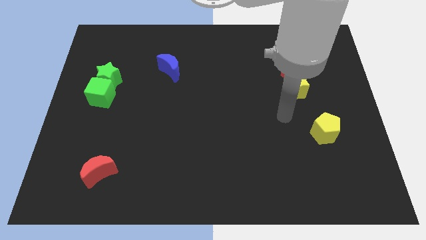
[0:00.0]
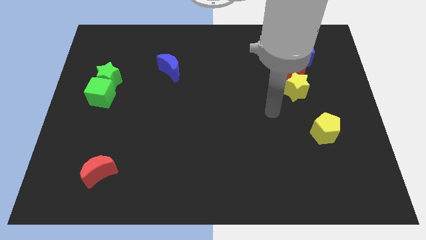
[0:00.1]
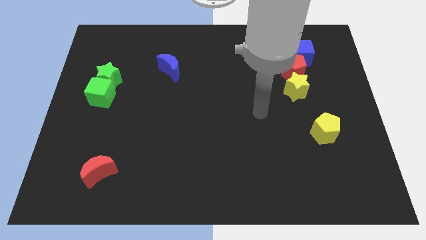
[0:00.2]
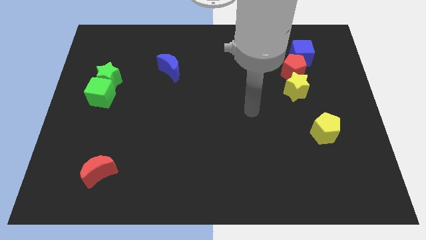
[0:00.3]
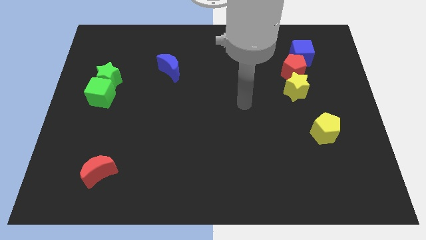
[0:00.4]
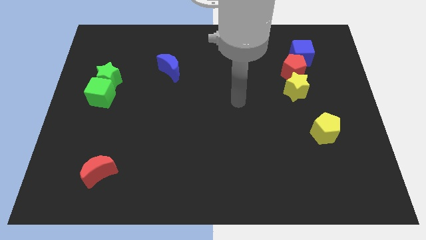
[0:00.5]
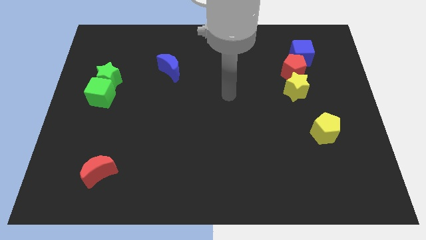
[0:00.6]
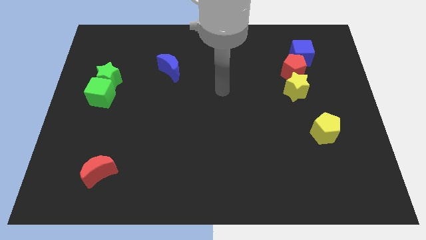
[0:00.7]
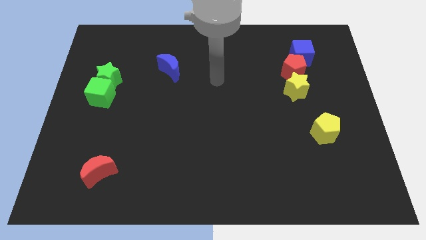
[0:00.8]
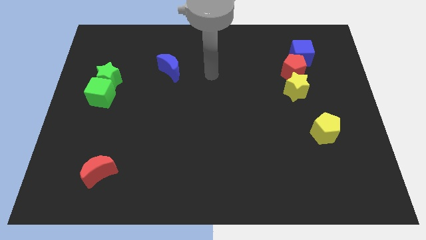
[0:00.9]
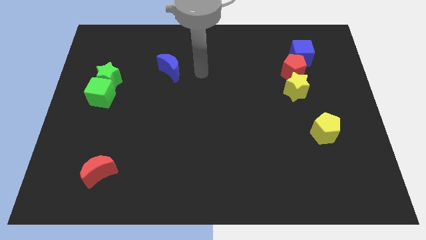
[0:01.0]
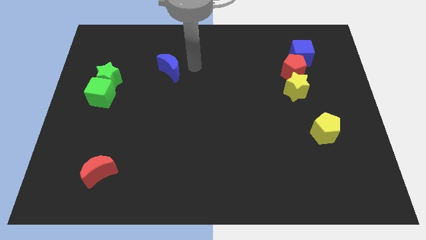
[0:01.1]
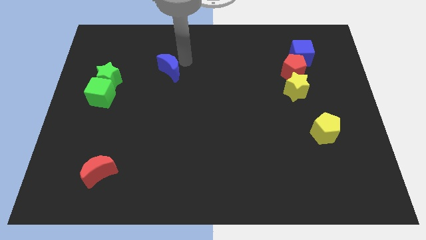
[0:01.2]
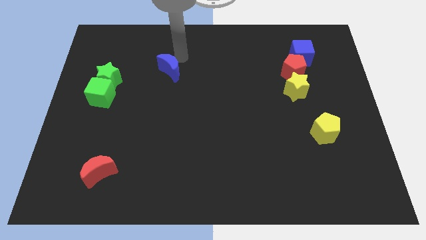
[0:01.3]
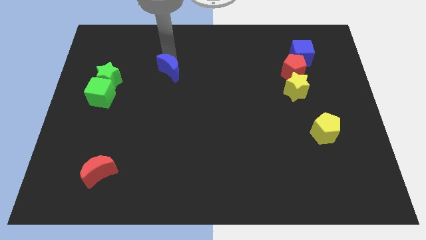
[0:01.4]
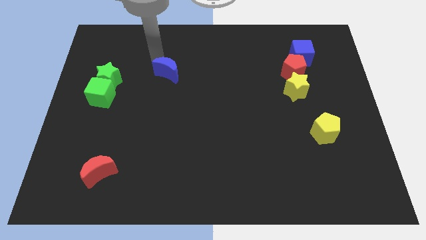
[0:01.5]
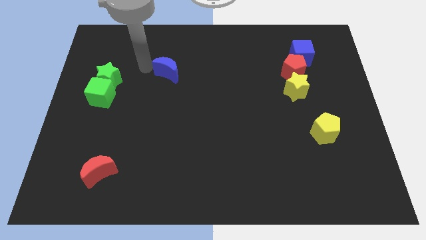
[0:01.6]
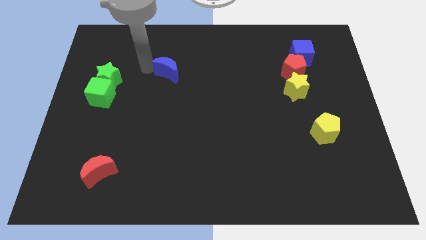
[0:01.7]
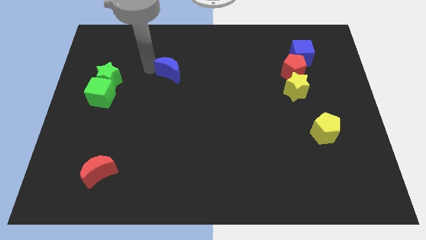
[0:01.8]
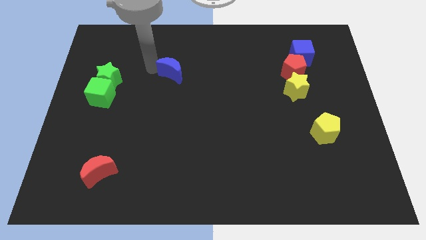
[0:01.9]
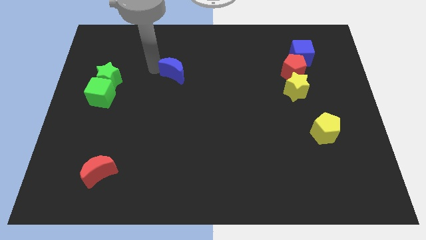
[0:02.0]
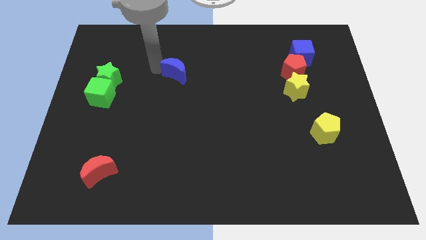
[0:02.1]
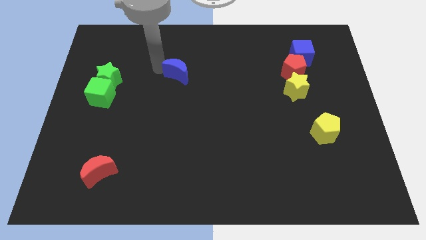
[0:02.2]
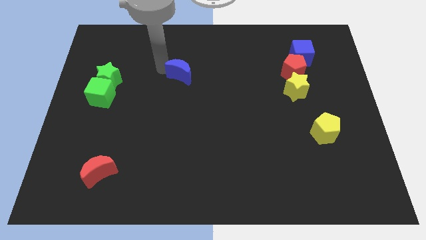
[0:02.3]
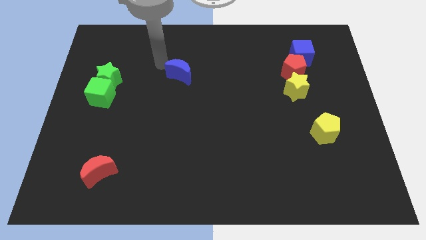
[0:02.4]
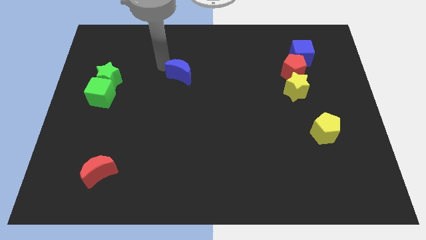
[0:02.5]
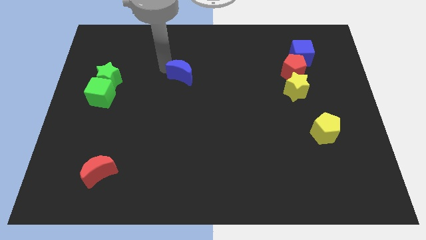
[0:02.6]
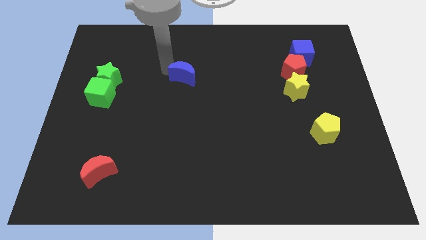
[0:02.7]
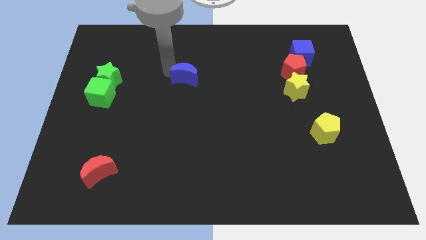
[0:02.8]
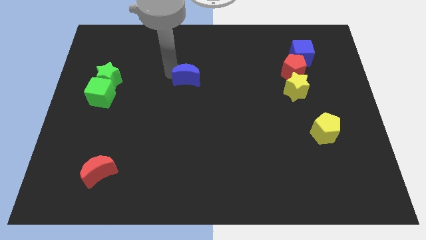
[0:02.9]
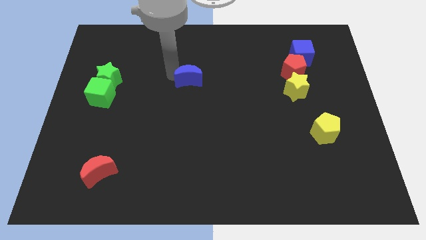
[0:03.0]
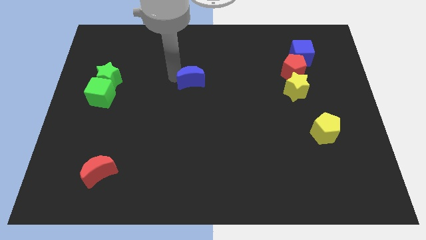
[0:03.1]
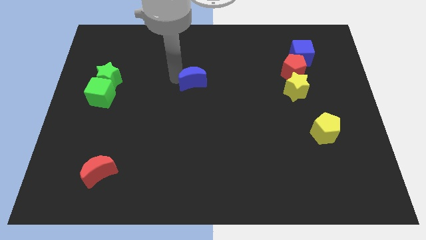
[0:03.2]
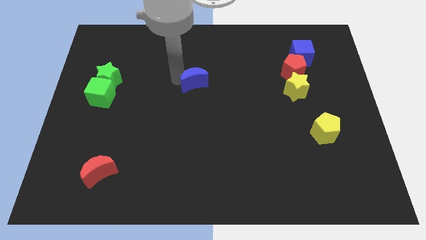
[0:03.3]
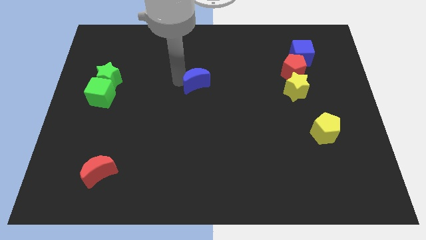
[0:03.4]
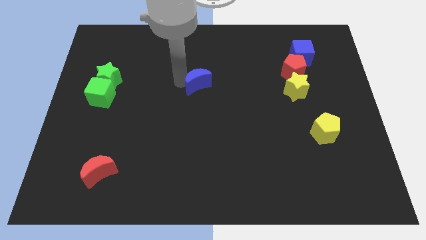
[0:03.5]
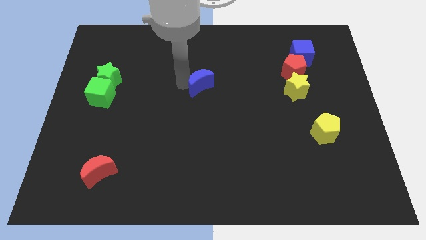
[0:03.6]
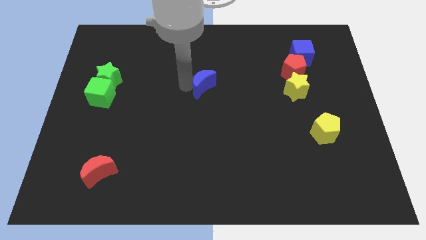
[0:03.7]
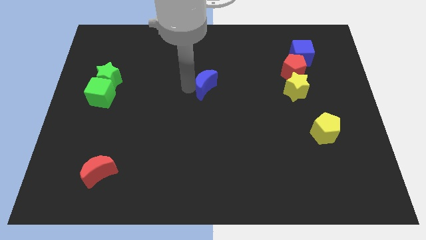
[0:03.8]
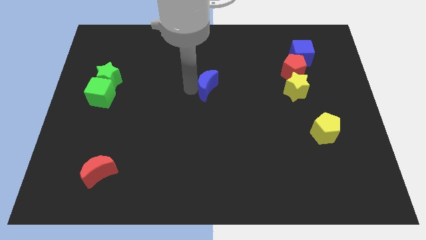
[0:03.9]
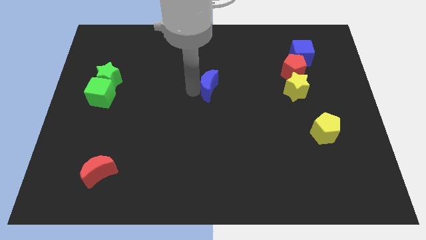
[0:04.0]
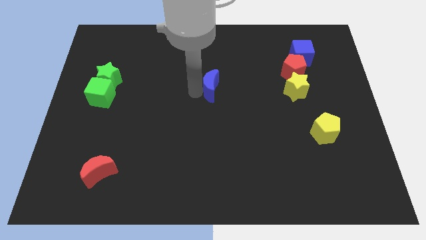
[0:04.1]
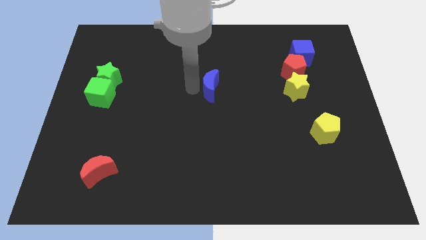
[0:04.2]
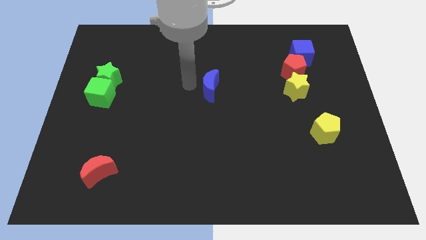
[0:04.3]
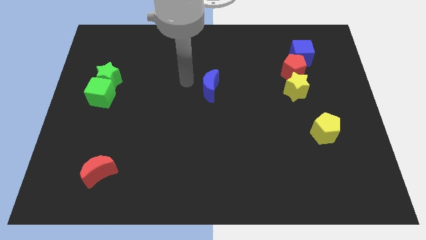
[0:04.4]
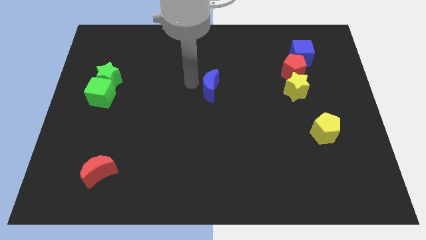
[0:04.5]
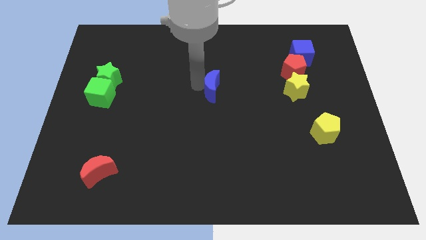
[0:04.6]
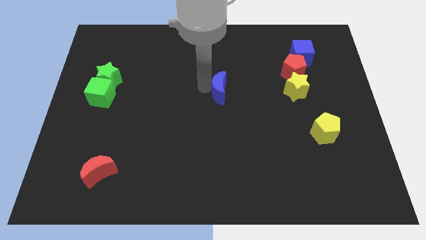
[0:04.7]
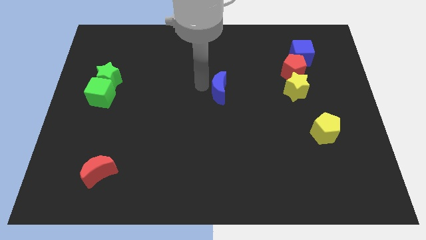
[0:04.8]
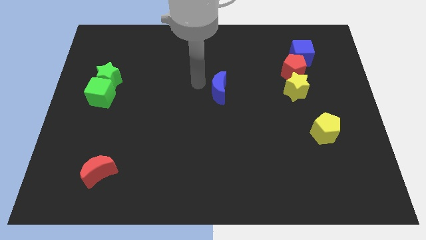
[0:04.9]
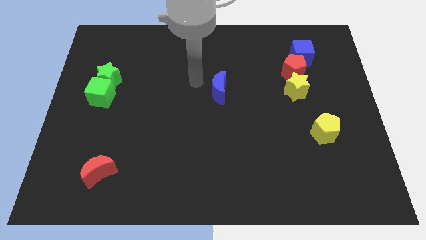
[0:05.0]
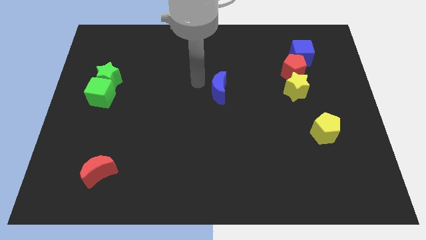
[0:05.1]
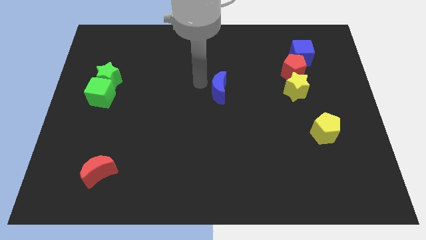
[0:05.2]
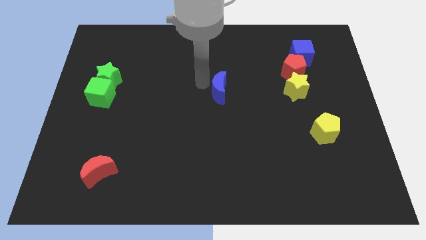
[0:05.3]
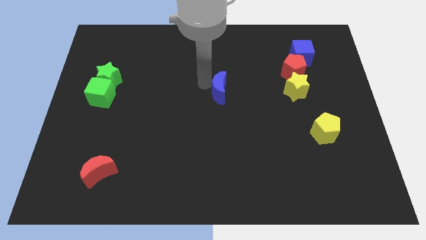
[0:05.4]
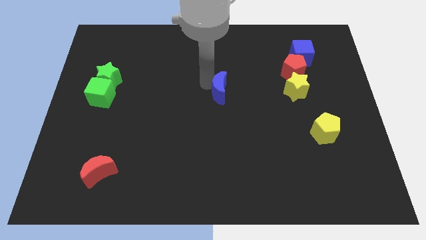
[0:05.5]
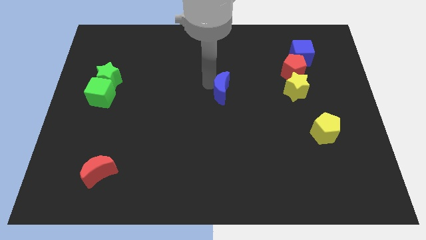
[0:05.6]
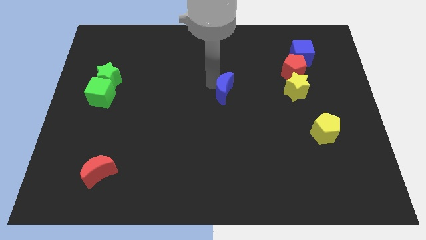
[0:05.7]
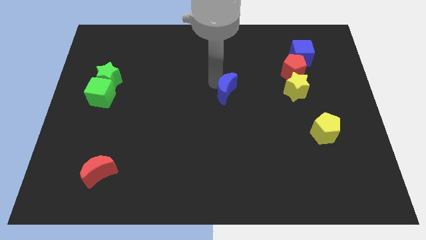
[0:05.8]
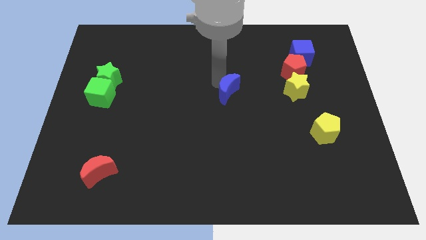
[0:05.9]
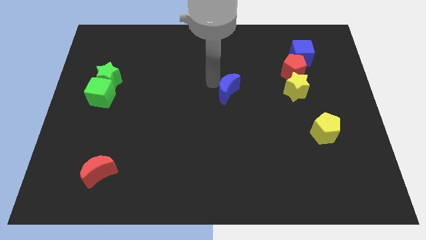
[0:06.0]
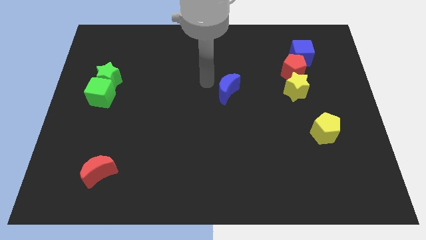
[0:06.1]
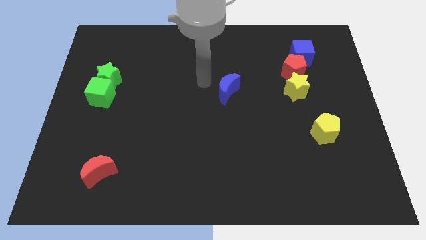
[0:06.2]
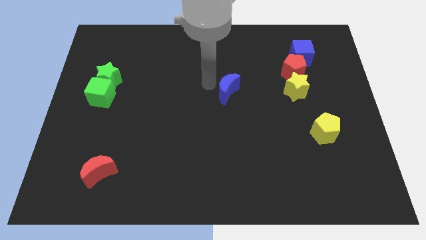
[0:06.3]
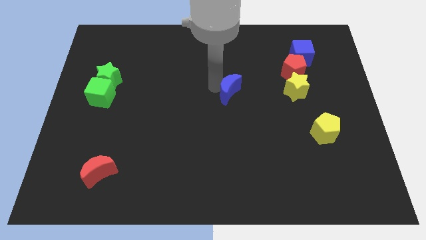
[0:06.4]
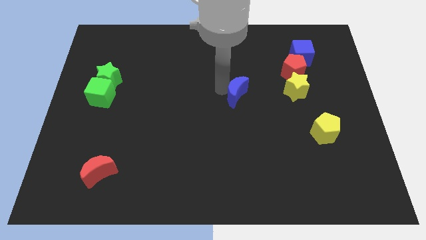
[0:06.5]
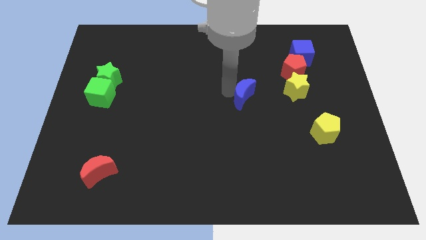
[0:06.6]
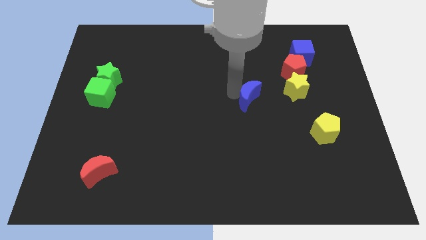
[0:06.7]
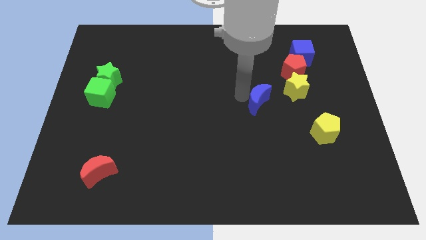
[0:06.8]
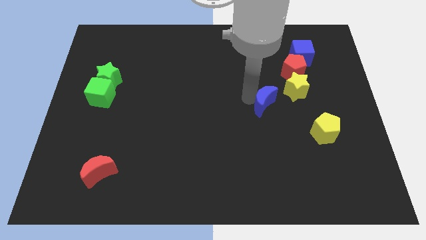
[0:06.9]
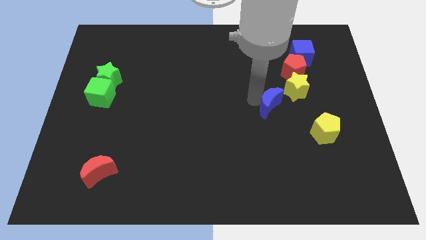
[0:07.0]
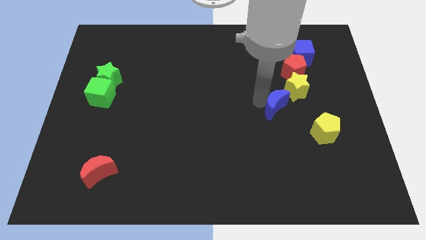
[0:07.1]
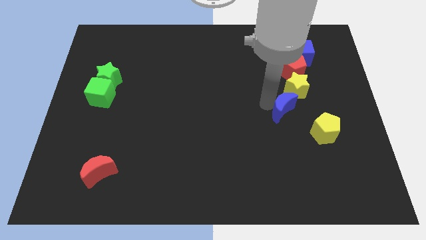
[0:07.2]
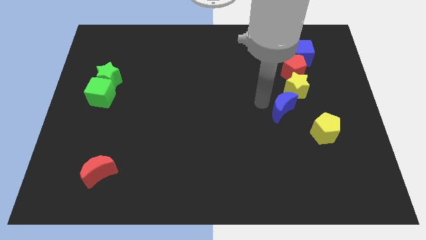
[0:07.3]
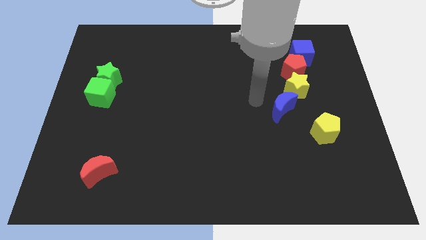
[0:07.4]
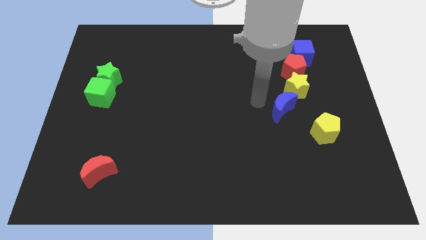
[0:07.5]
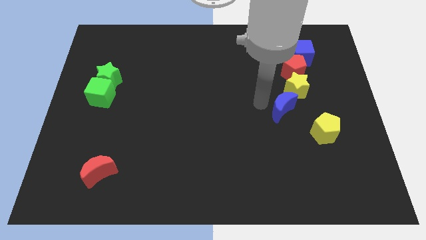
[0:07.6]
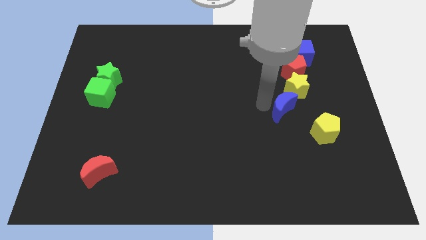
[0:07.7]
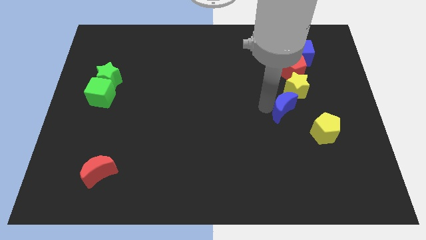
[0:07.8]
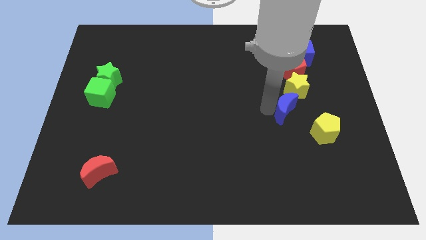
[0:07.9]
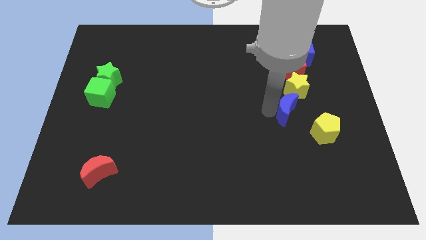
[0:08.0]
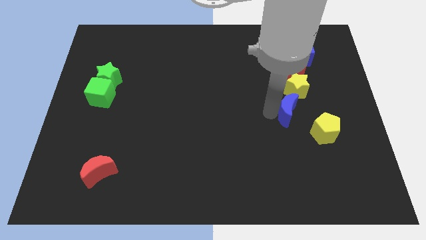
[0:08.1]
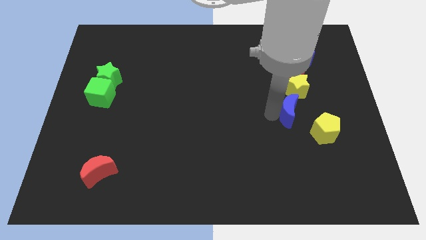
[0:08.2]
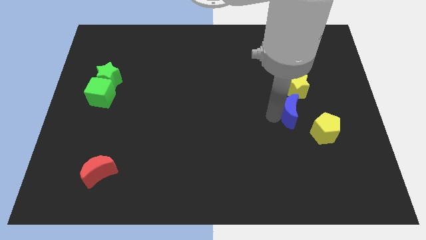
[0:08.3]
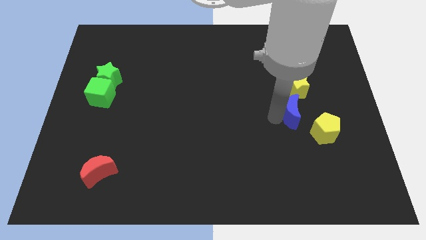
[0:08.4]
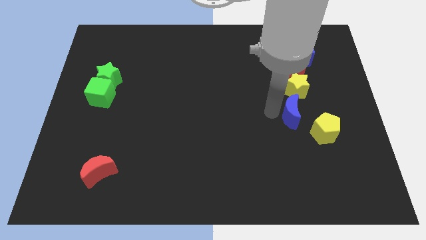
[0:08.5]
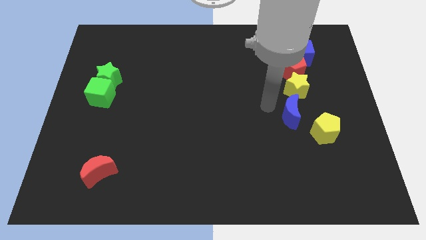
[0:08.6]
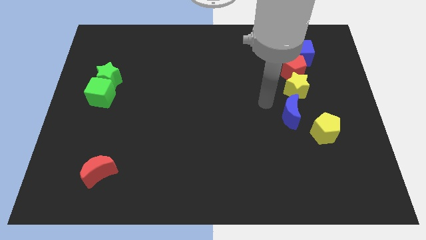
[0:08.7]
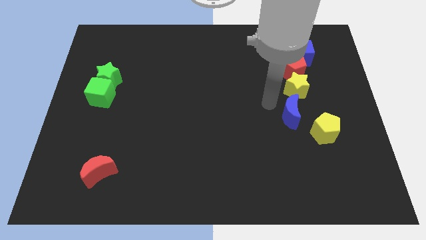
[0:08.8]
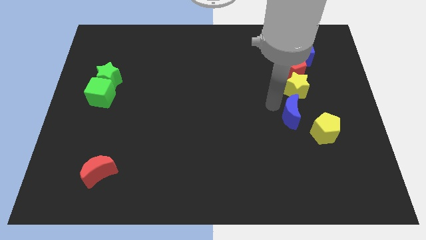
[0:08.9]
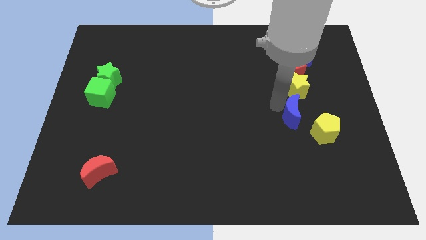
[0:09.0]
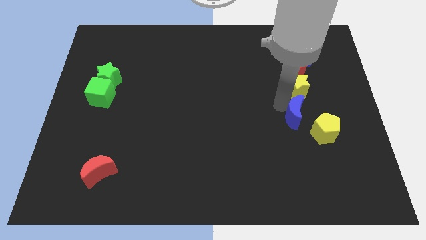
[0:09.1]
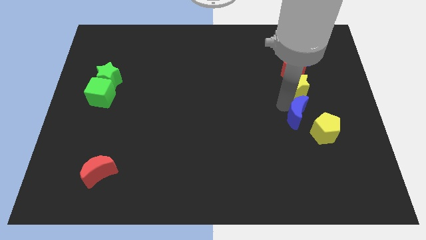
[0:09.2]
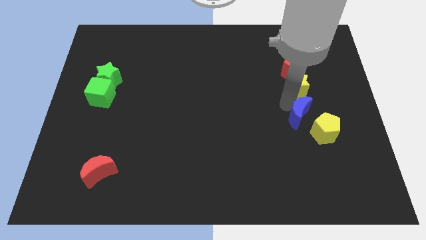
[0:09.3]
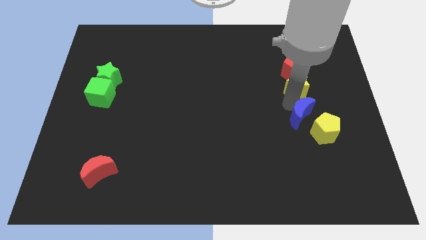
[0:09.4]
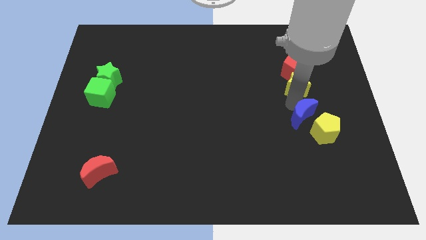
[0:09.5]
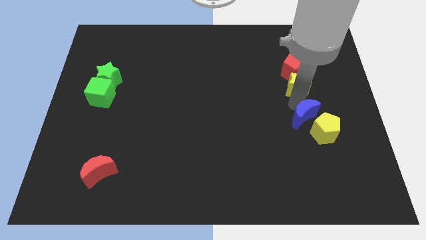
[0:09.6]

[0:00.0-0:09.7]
push the blue moon towards the yellow pentagon
